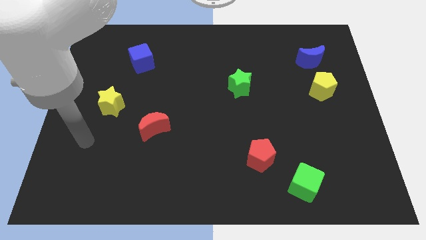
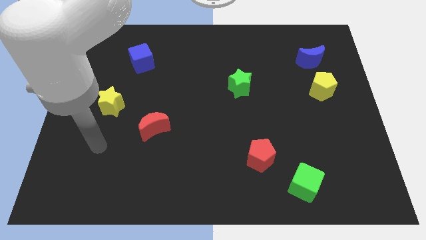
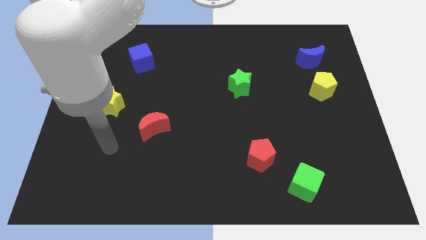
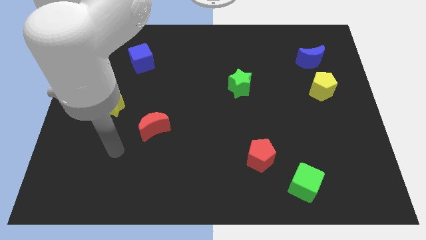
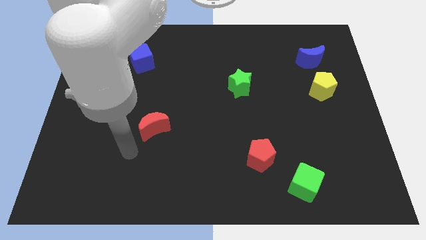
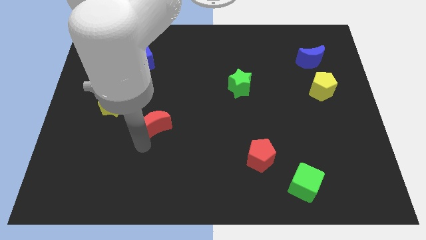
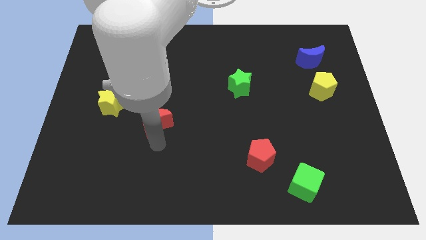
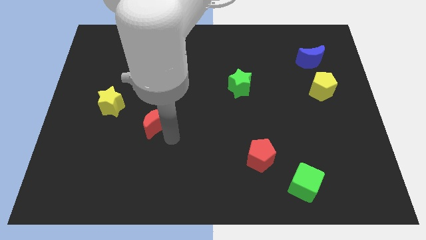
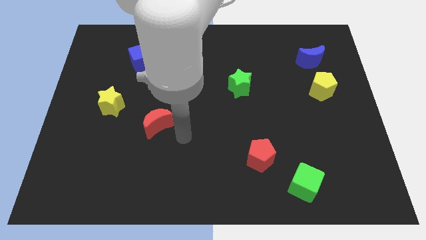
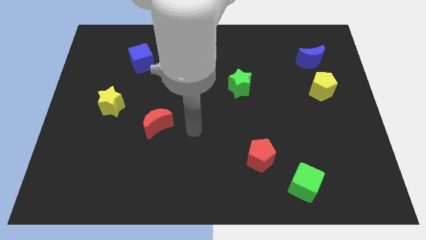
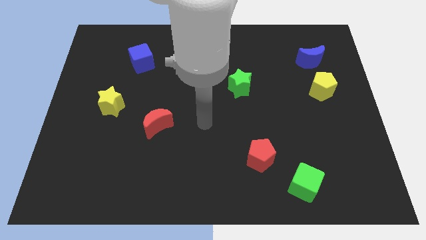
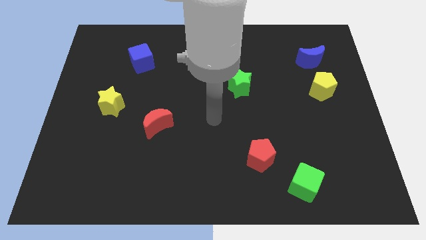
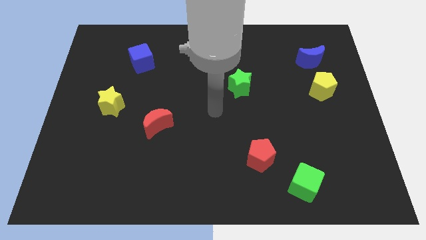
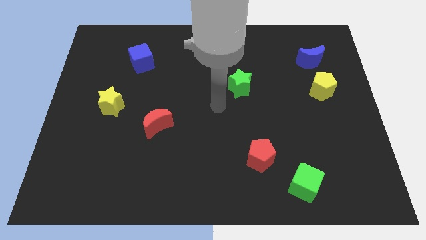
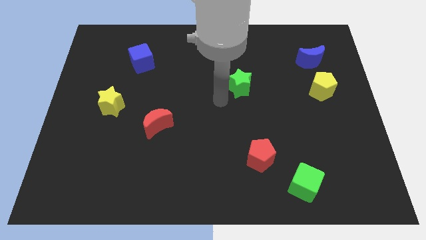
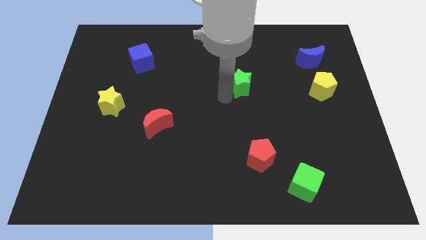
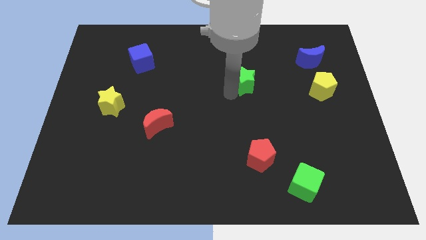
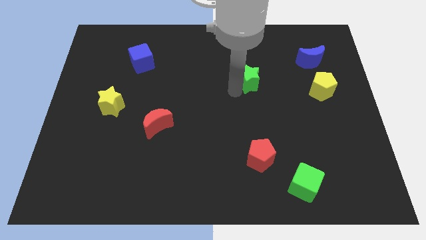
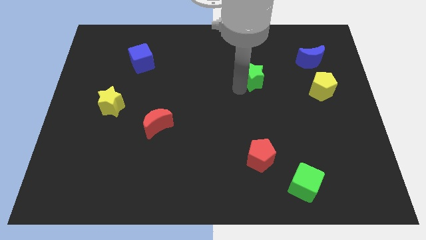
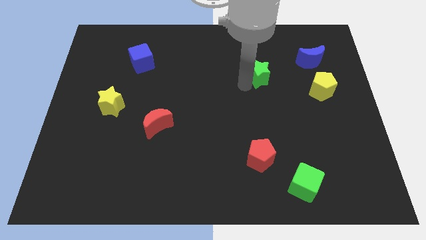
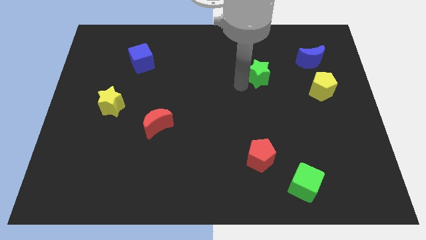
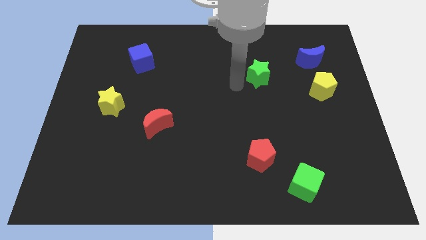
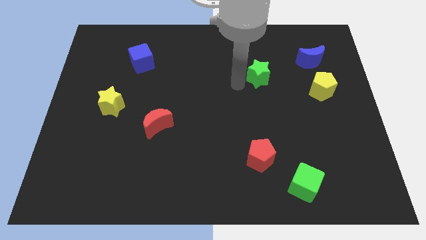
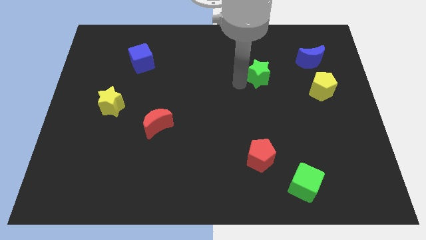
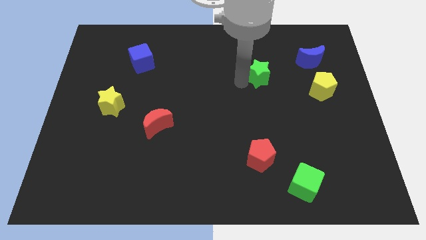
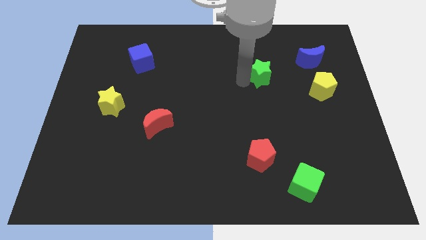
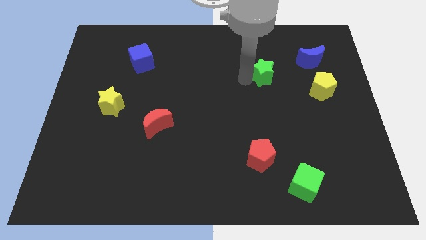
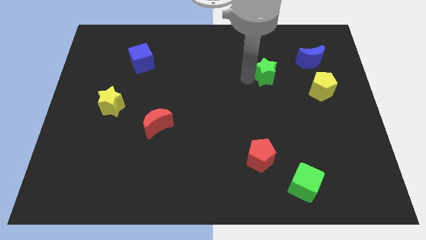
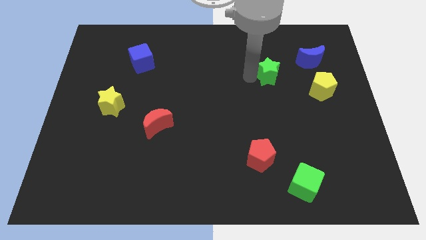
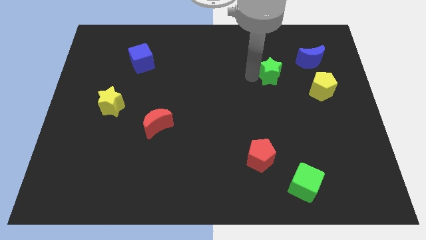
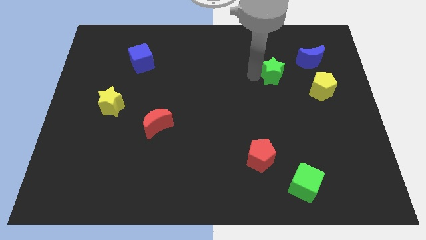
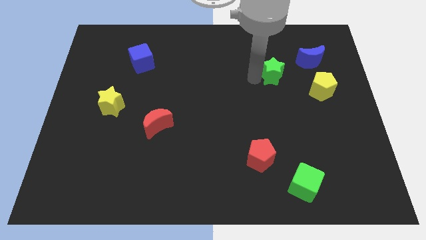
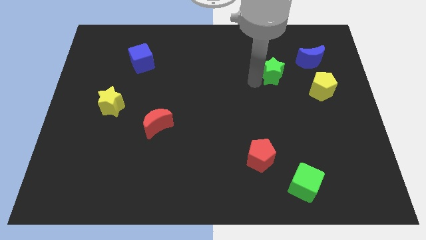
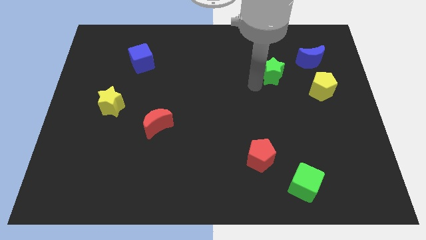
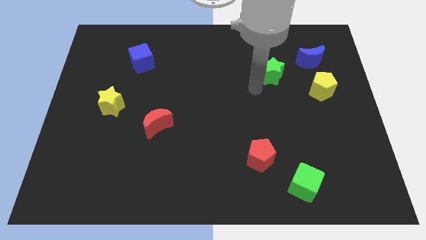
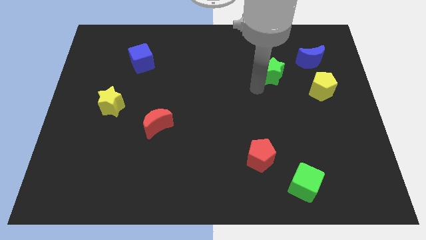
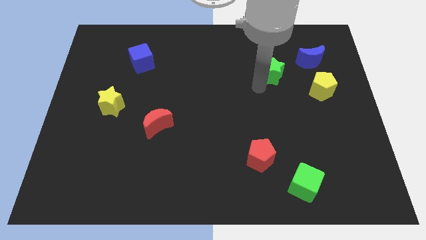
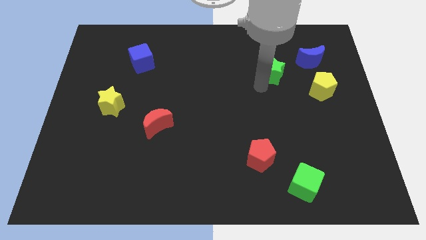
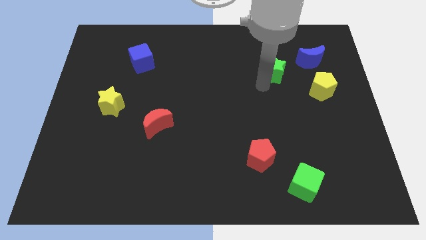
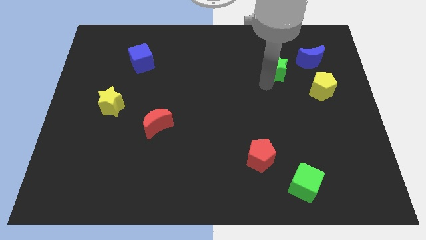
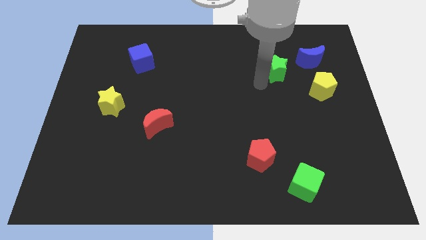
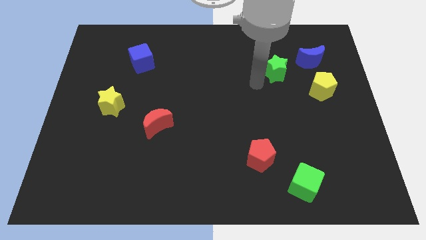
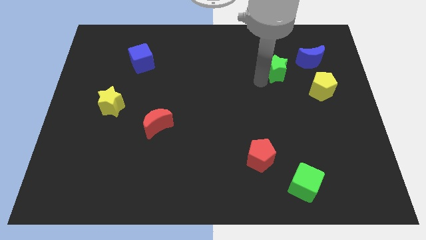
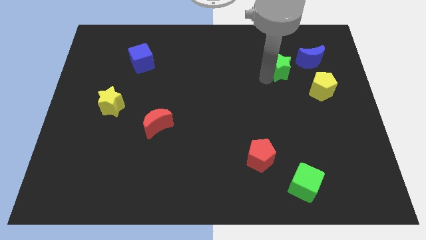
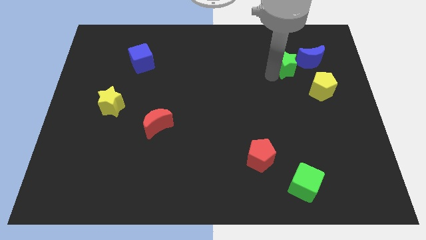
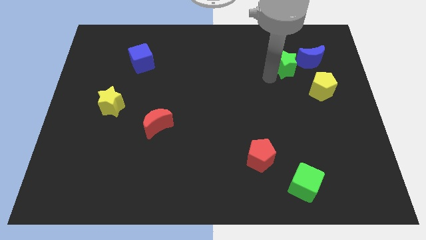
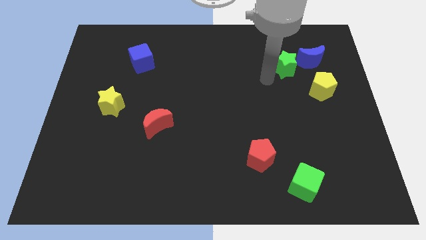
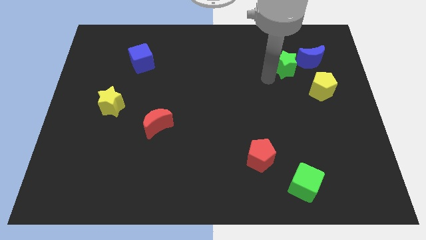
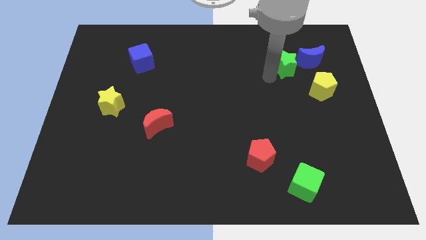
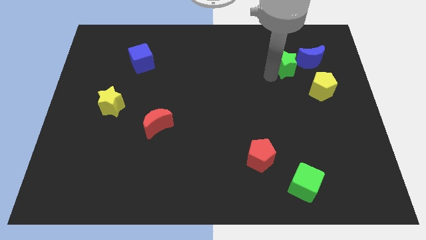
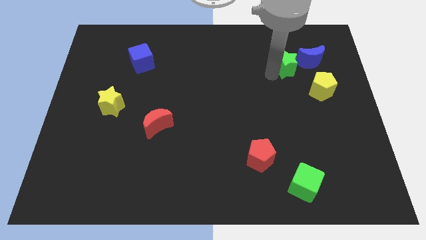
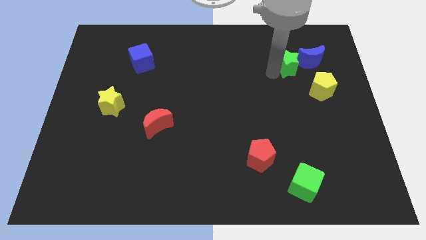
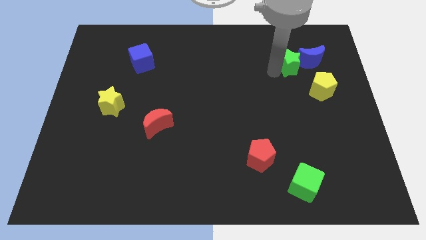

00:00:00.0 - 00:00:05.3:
push the green star next to the blue moon

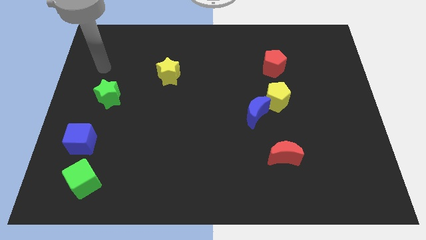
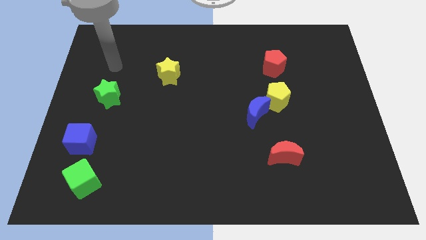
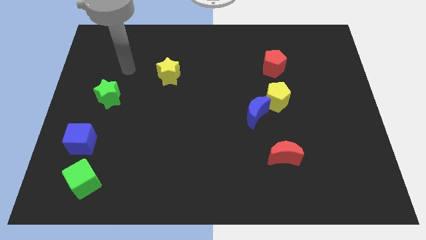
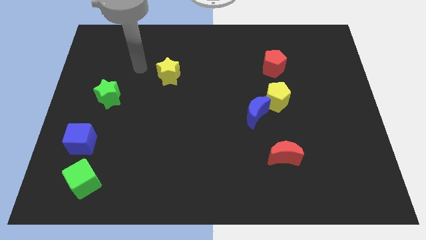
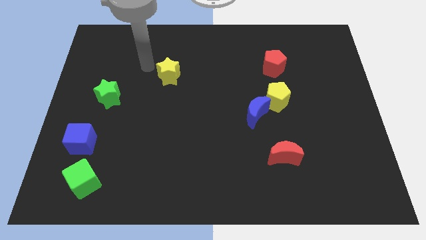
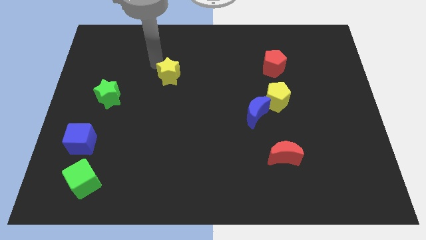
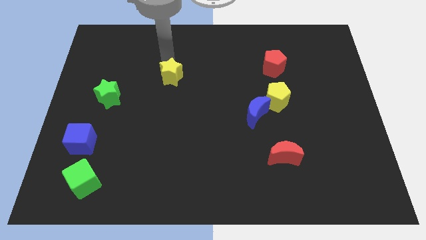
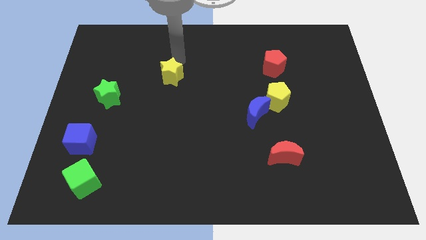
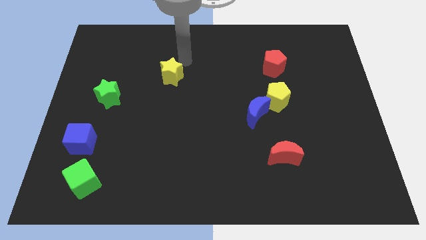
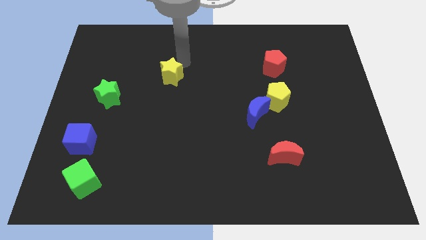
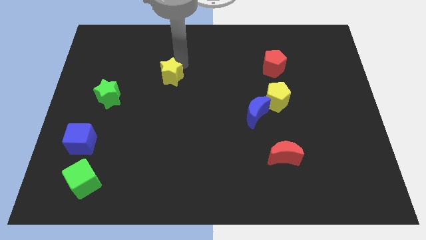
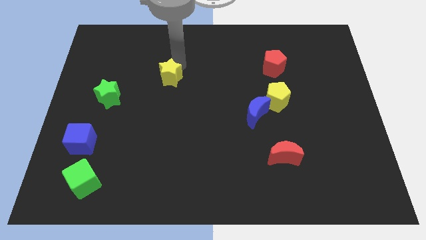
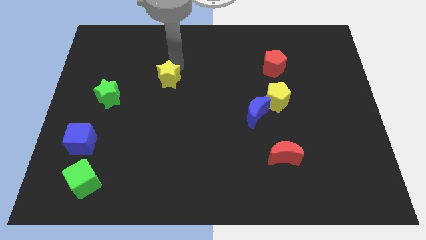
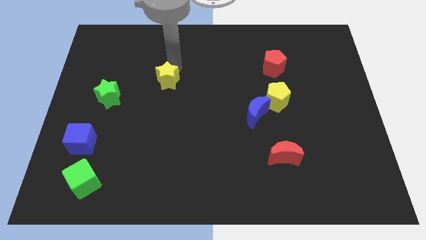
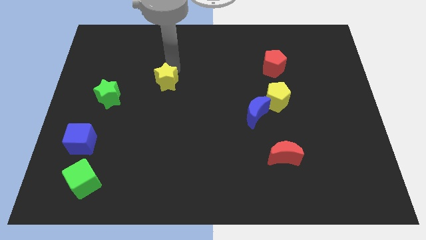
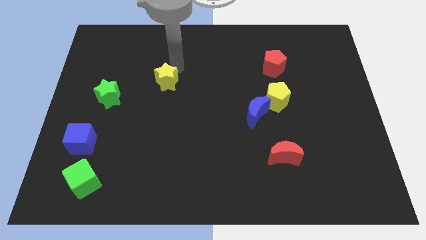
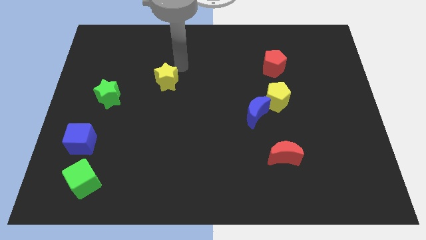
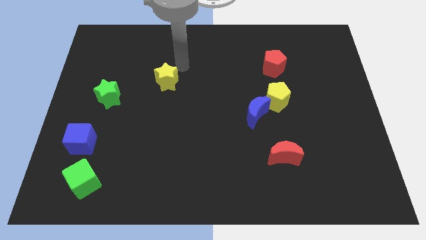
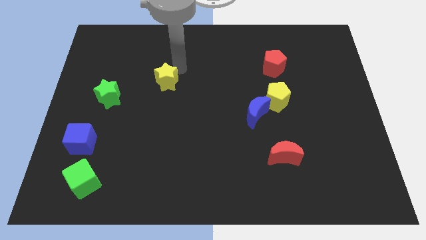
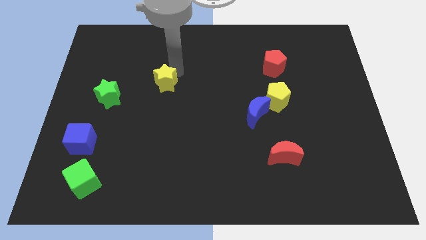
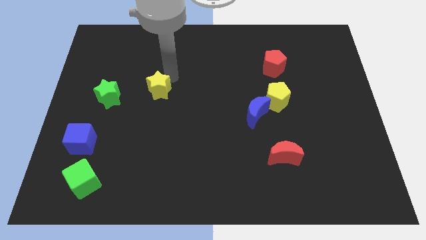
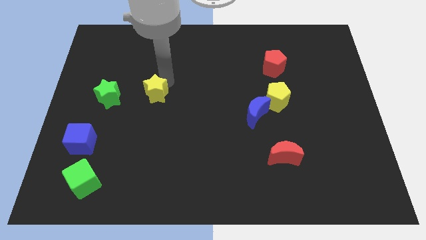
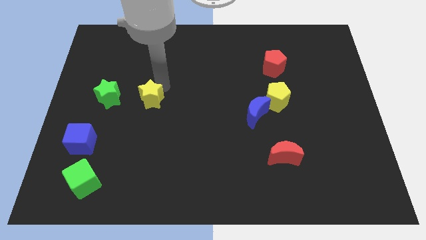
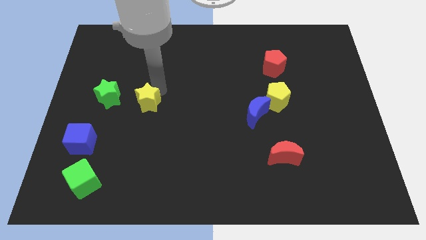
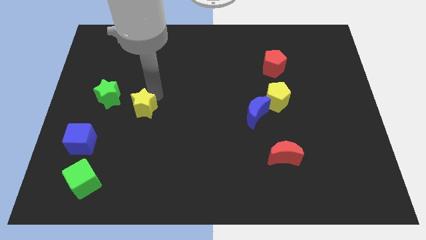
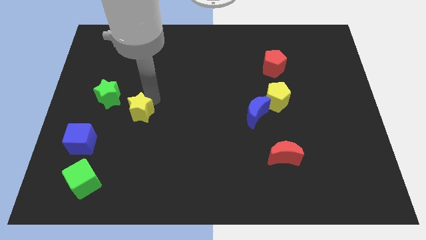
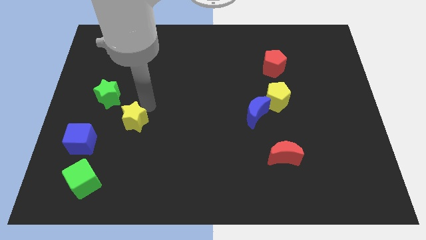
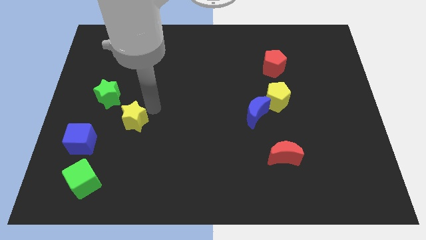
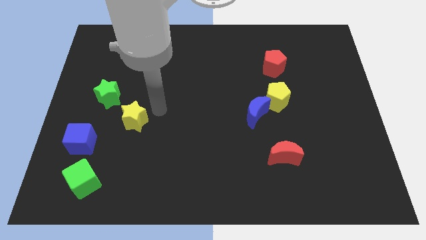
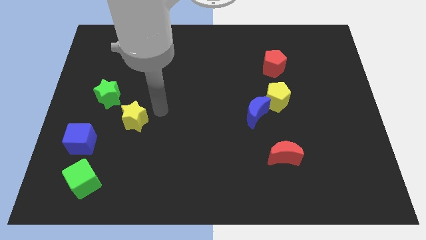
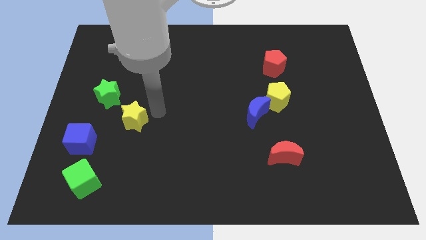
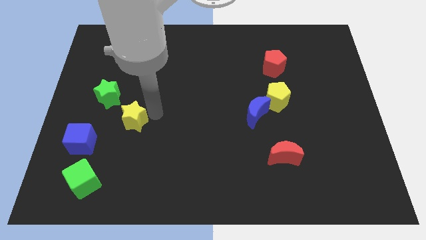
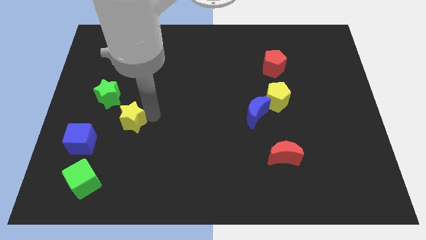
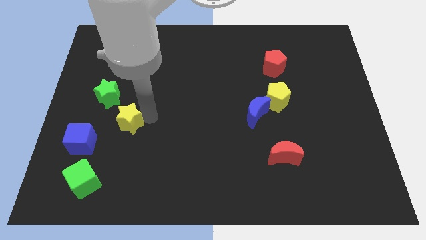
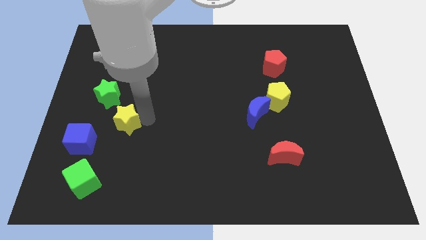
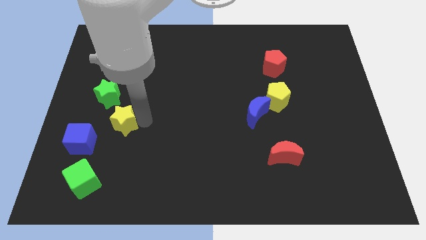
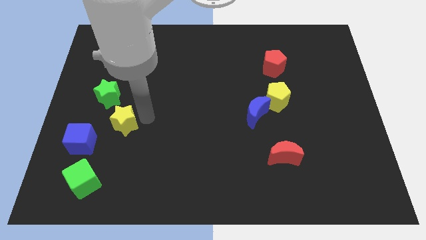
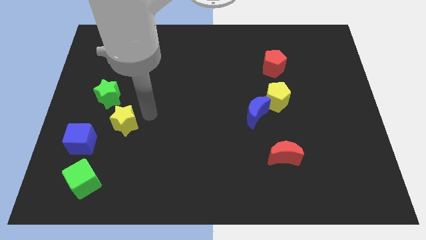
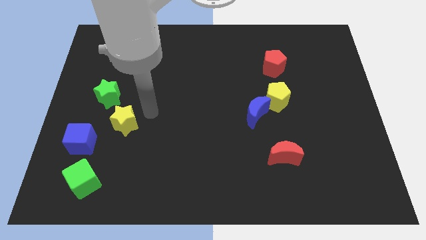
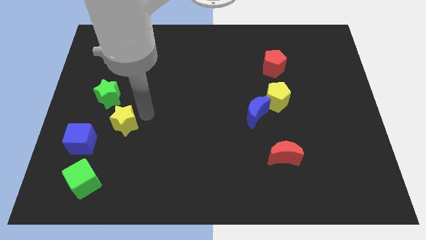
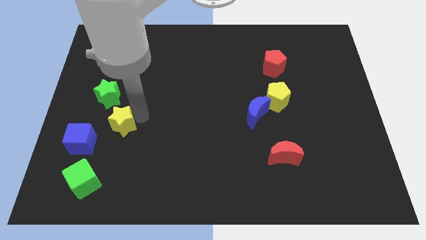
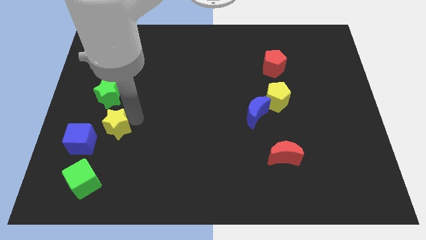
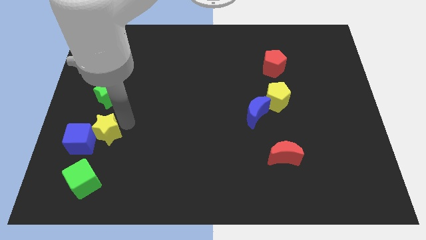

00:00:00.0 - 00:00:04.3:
push the yellow star next to the blue cube
